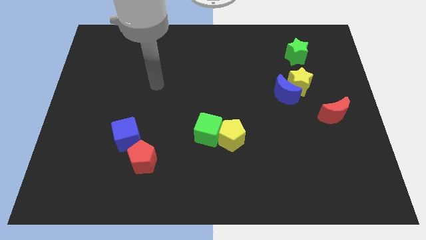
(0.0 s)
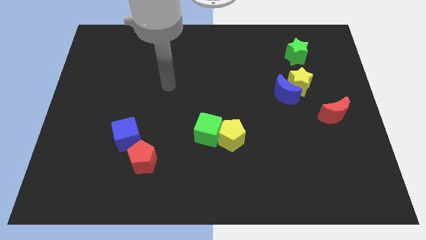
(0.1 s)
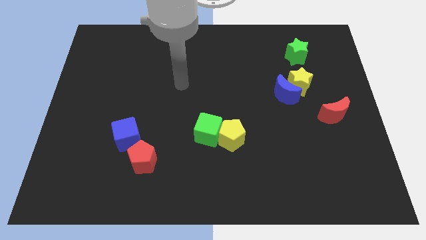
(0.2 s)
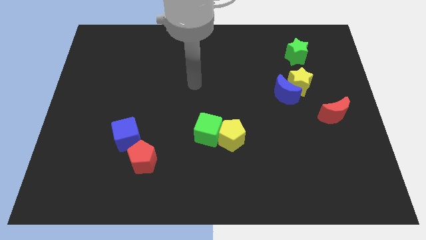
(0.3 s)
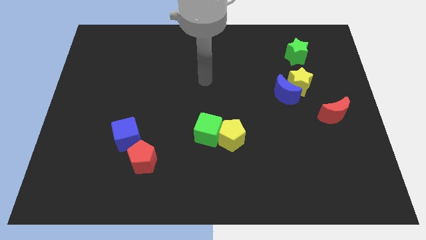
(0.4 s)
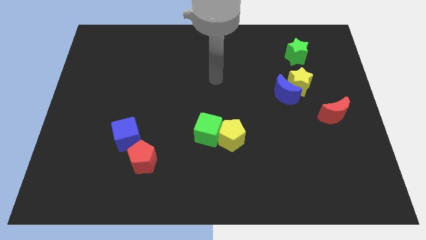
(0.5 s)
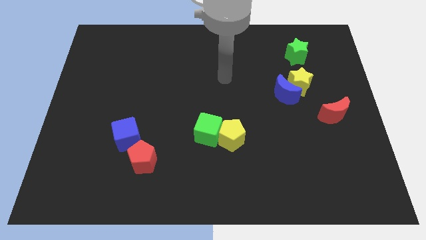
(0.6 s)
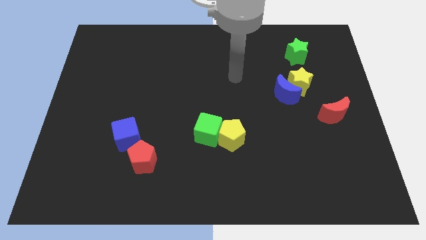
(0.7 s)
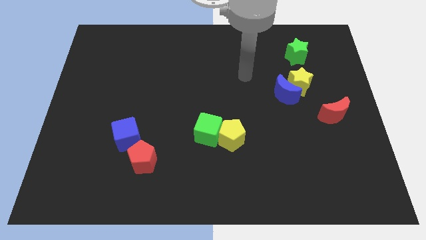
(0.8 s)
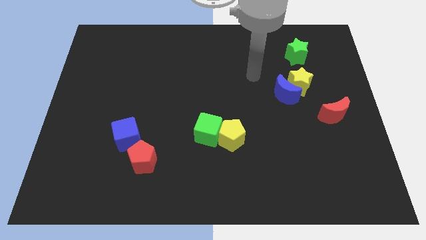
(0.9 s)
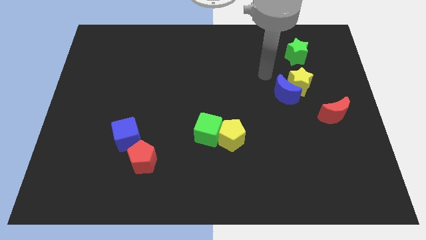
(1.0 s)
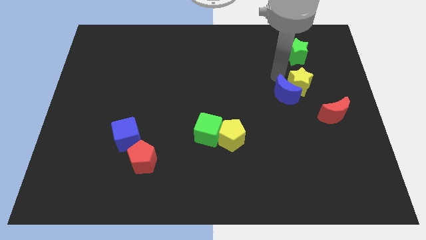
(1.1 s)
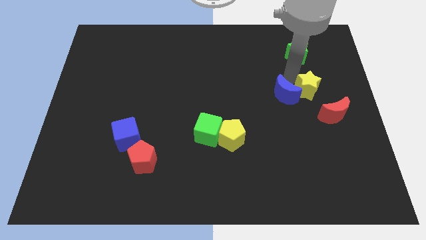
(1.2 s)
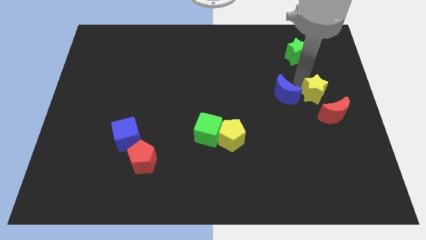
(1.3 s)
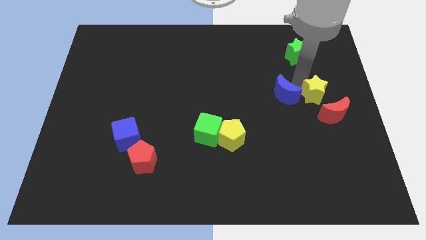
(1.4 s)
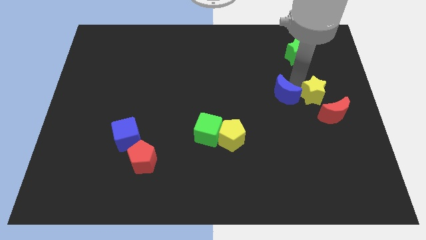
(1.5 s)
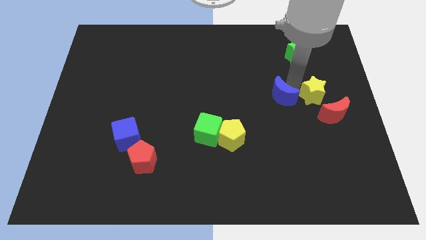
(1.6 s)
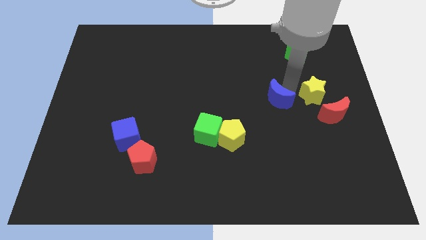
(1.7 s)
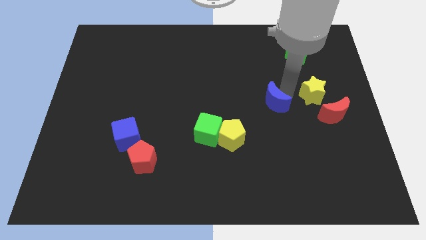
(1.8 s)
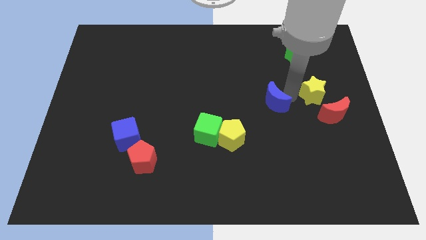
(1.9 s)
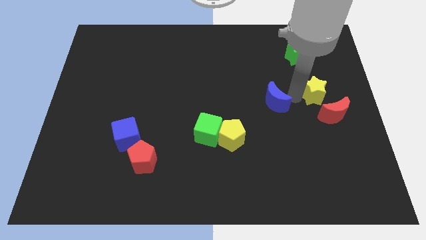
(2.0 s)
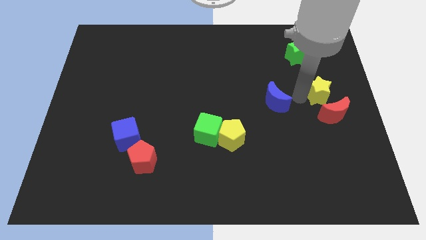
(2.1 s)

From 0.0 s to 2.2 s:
move the blue moon away from the yellow star

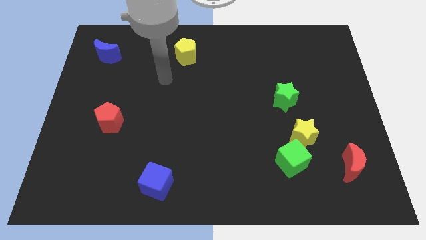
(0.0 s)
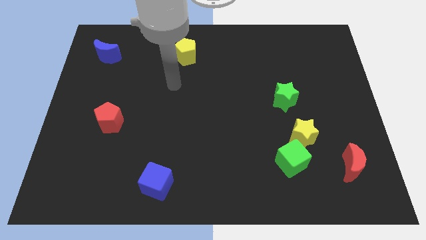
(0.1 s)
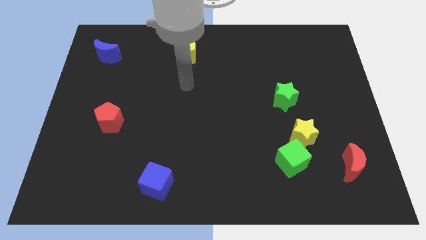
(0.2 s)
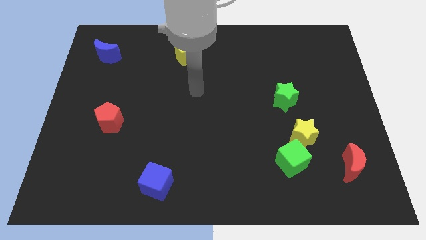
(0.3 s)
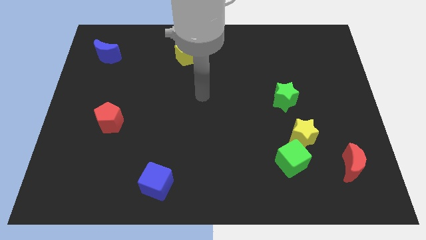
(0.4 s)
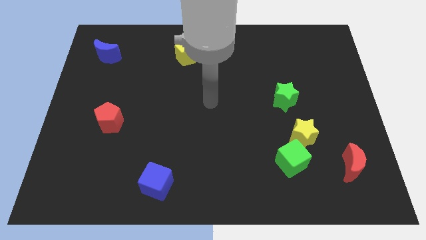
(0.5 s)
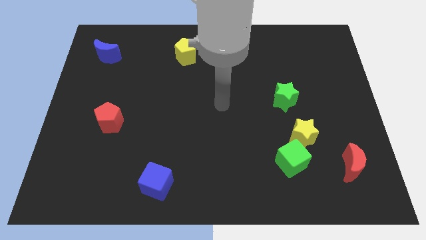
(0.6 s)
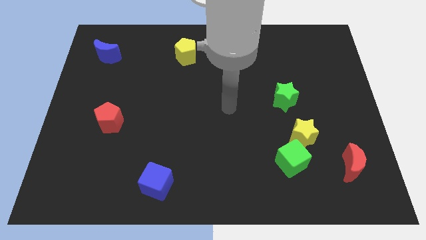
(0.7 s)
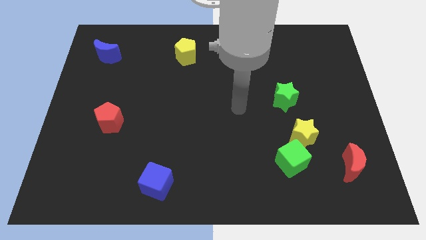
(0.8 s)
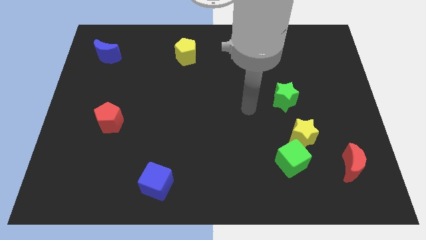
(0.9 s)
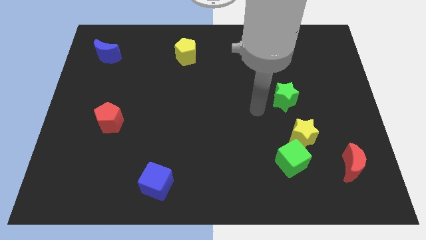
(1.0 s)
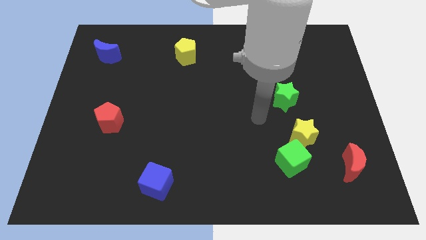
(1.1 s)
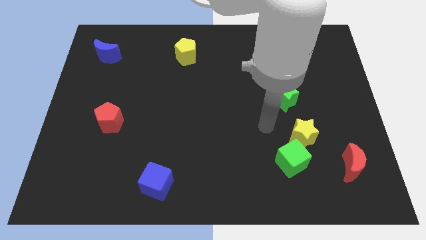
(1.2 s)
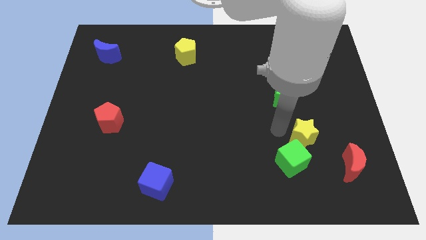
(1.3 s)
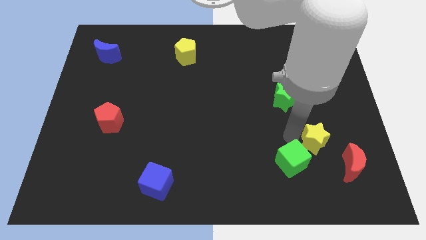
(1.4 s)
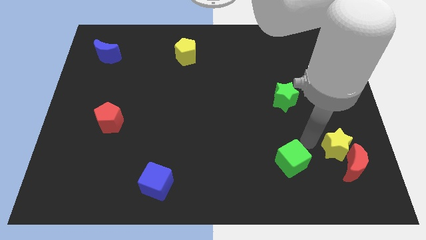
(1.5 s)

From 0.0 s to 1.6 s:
move the green cube away from the yellow star

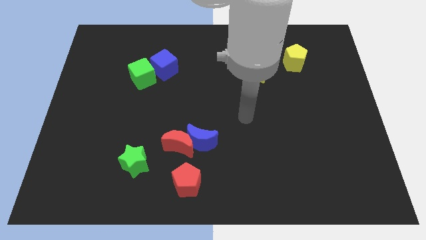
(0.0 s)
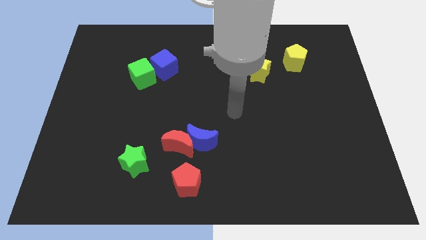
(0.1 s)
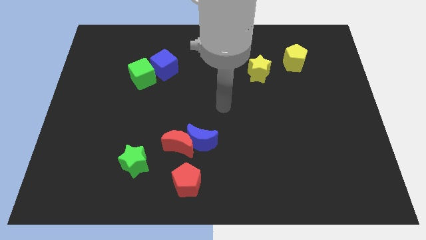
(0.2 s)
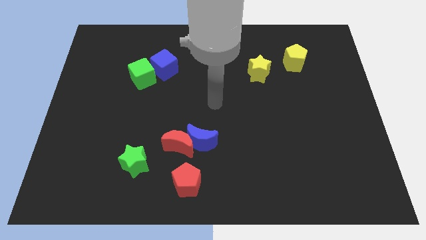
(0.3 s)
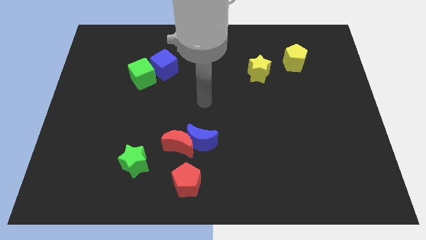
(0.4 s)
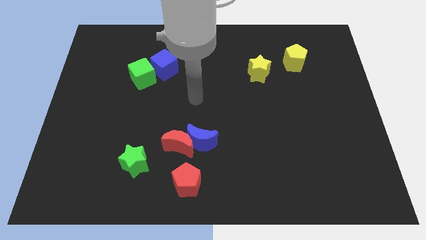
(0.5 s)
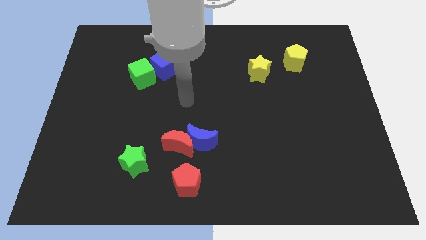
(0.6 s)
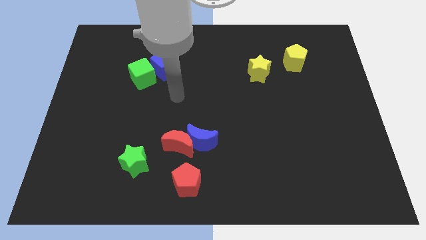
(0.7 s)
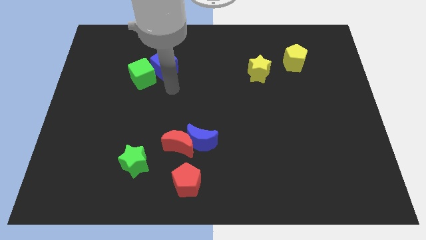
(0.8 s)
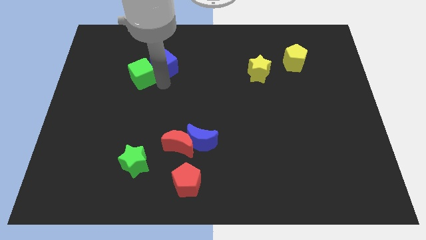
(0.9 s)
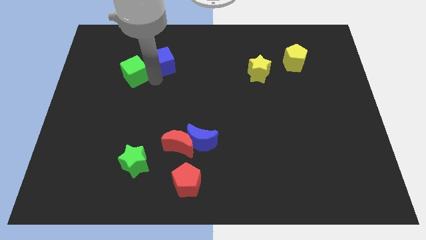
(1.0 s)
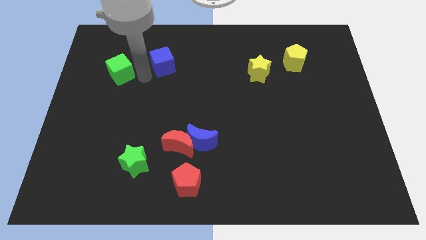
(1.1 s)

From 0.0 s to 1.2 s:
pull the blue cube apart from the green cube

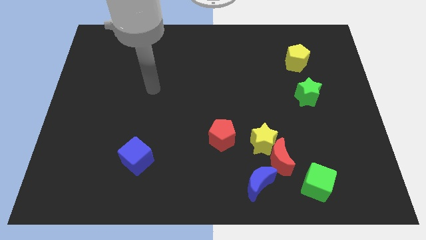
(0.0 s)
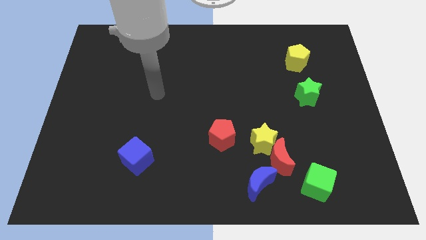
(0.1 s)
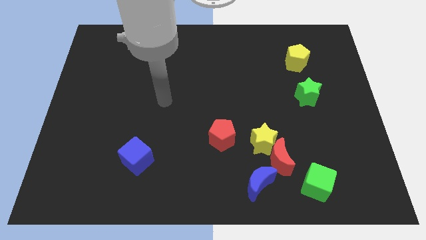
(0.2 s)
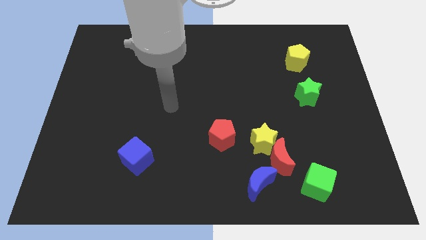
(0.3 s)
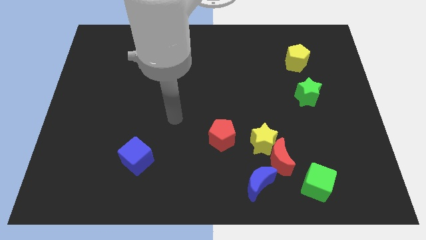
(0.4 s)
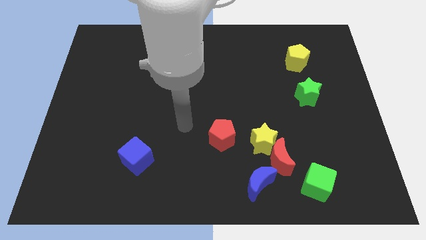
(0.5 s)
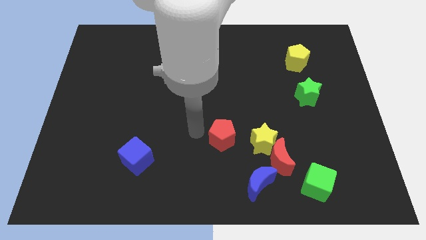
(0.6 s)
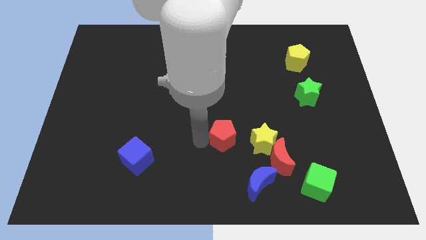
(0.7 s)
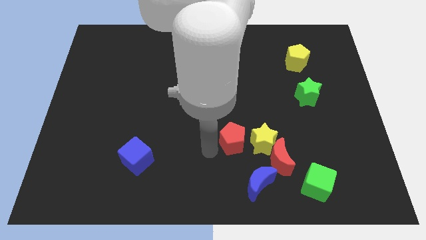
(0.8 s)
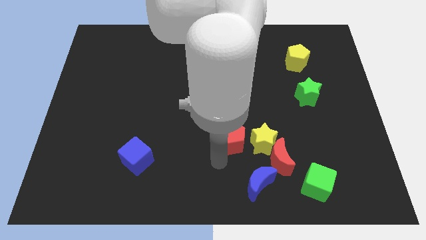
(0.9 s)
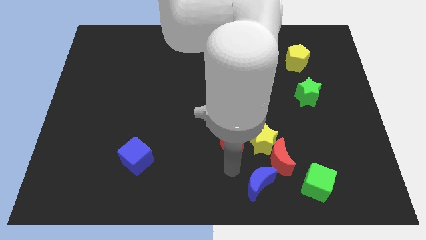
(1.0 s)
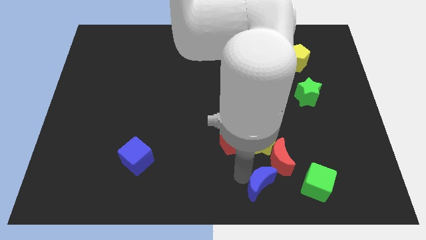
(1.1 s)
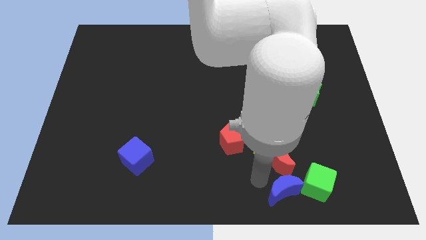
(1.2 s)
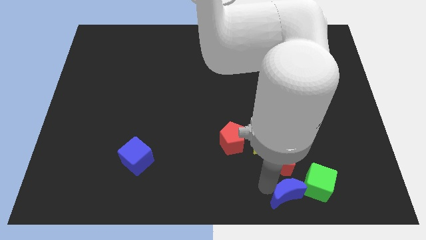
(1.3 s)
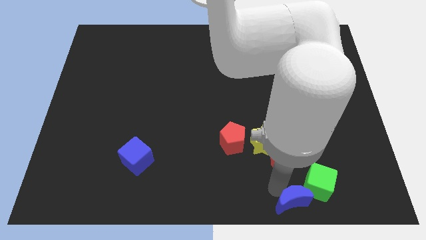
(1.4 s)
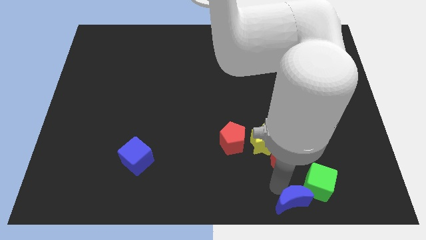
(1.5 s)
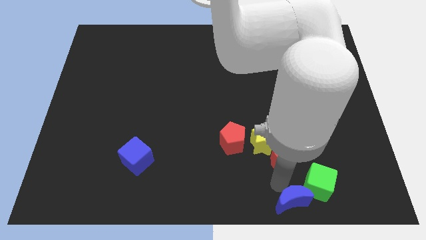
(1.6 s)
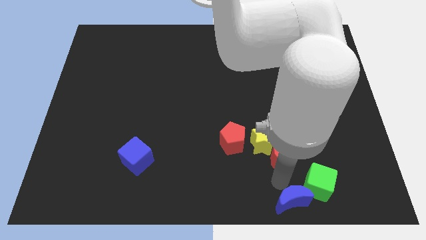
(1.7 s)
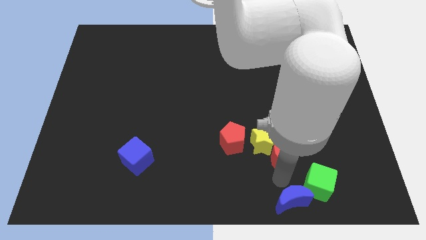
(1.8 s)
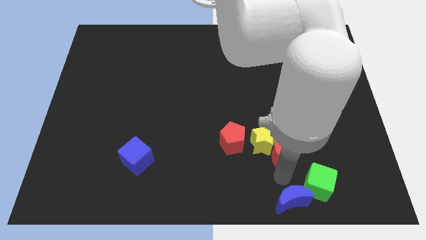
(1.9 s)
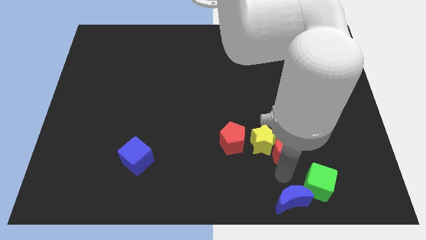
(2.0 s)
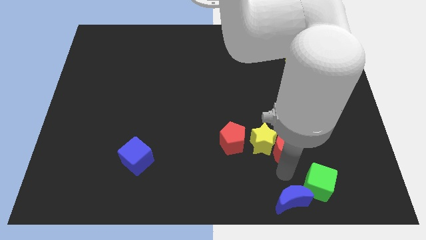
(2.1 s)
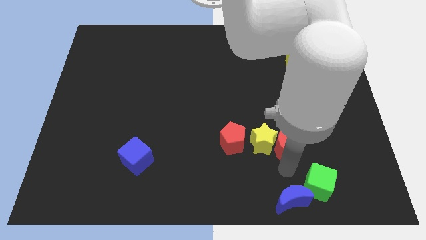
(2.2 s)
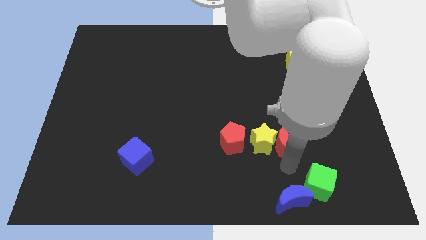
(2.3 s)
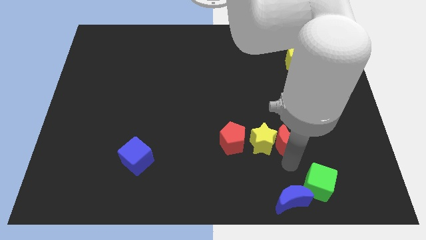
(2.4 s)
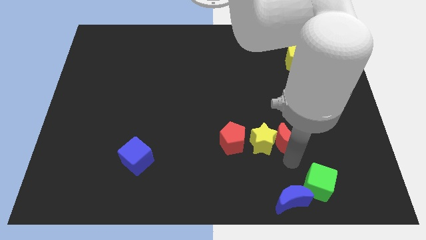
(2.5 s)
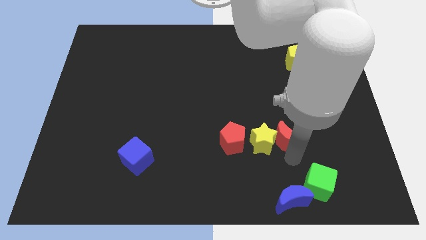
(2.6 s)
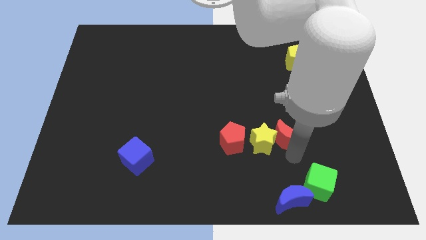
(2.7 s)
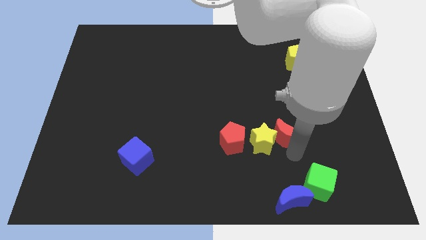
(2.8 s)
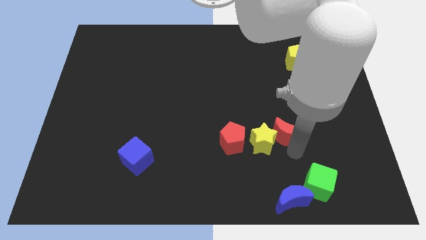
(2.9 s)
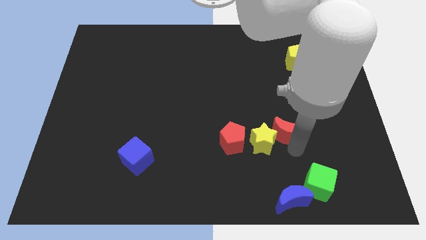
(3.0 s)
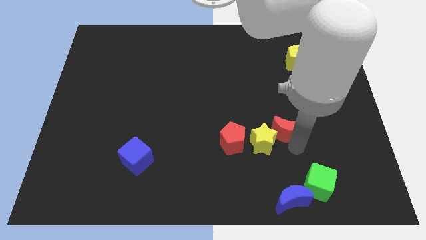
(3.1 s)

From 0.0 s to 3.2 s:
separate the red moon from the yellow star, blue moon, and green cube

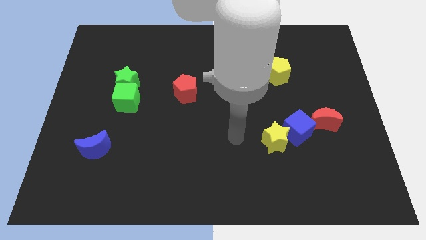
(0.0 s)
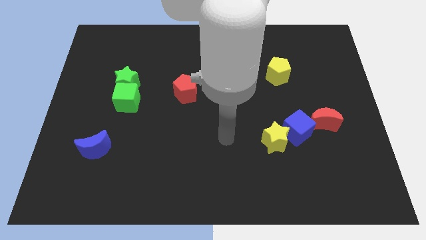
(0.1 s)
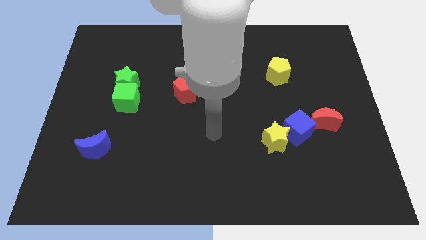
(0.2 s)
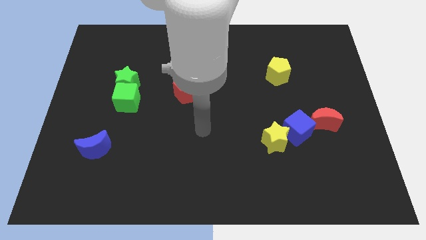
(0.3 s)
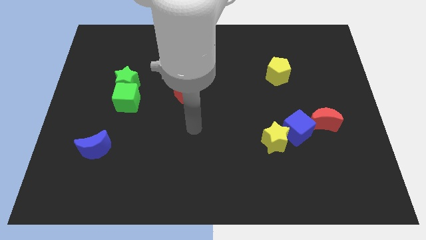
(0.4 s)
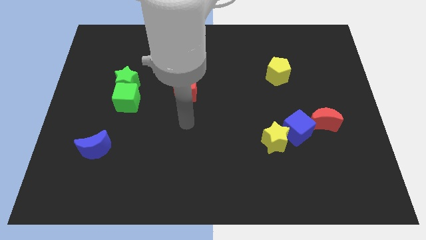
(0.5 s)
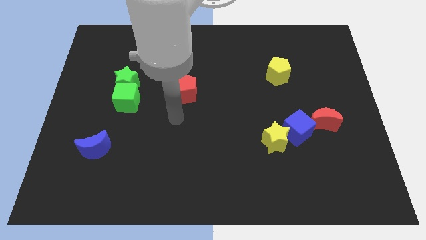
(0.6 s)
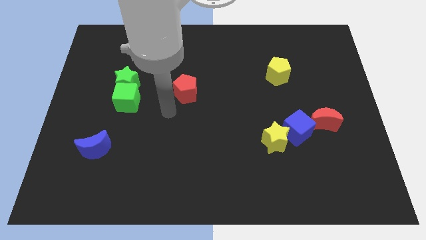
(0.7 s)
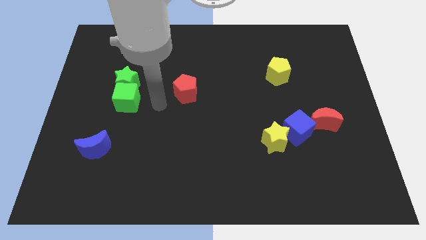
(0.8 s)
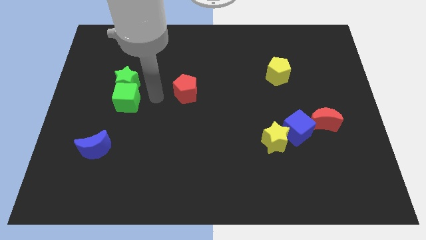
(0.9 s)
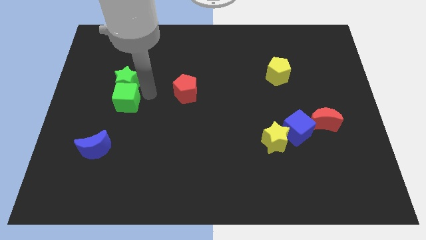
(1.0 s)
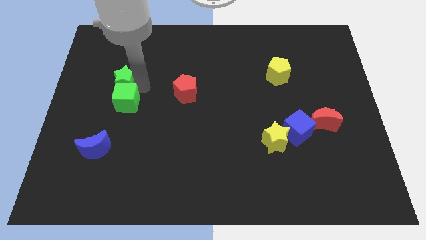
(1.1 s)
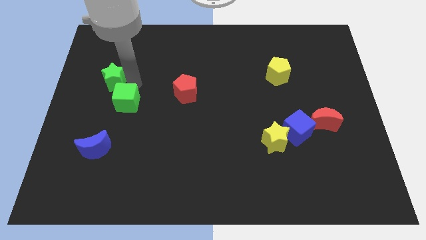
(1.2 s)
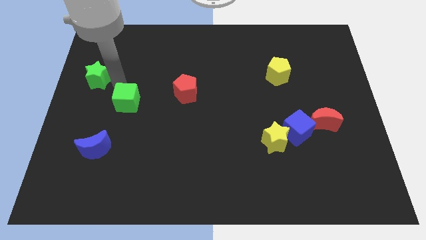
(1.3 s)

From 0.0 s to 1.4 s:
pull the green cube apart from the green star
